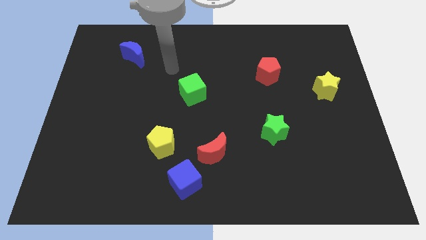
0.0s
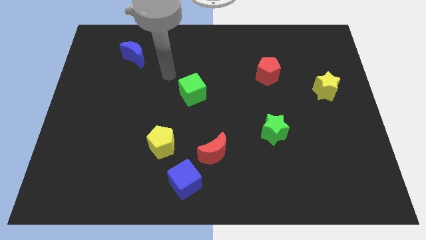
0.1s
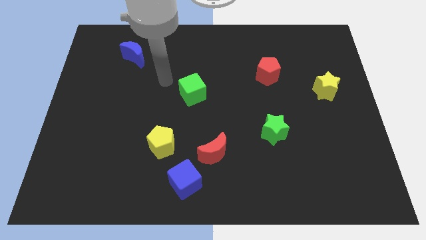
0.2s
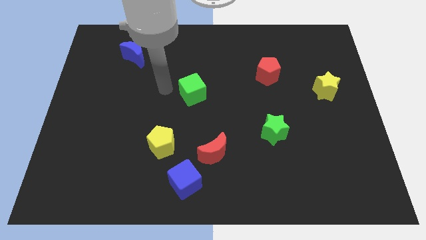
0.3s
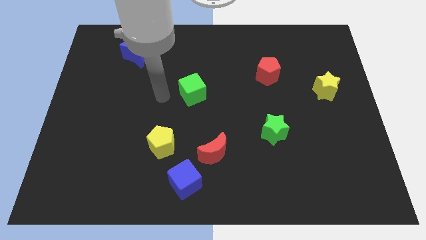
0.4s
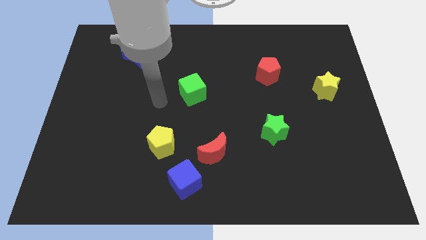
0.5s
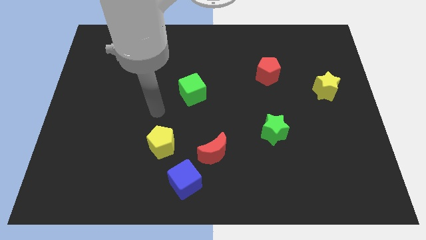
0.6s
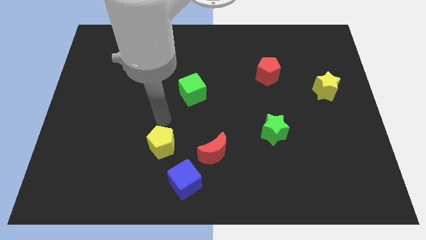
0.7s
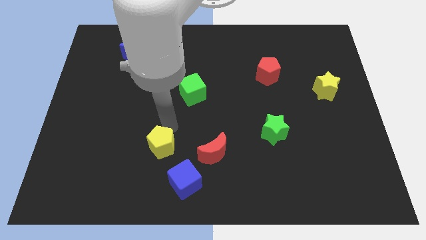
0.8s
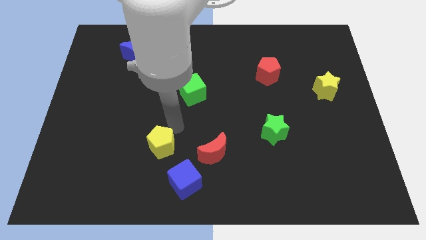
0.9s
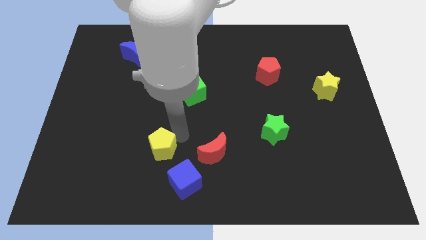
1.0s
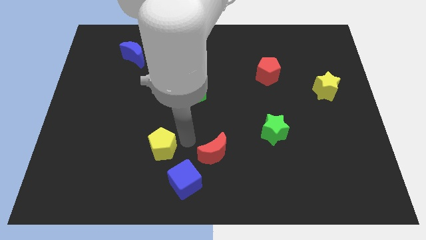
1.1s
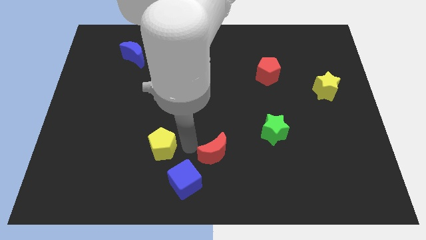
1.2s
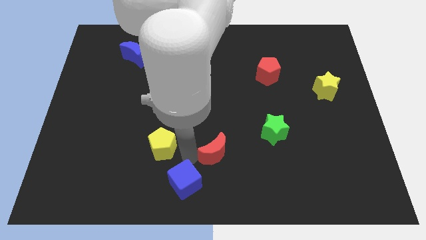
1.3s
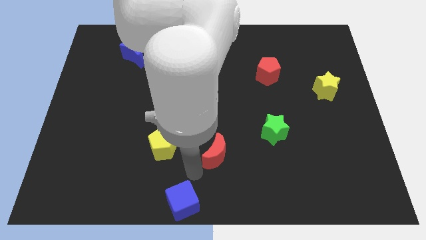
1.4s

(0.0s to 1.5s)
pull the red moon apart from the blue cube

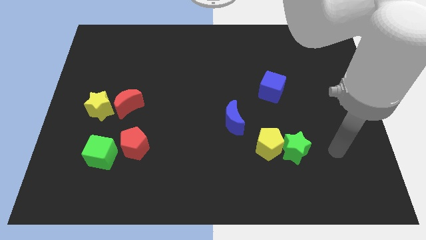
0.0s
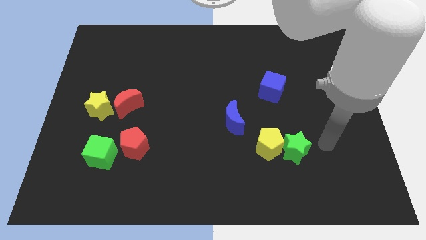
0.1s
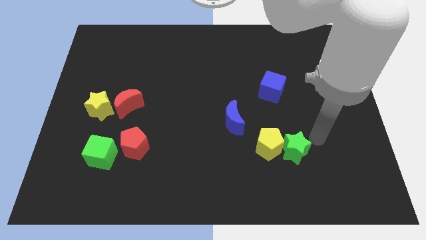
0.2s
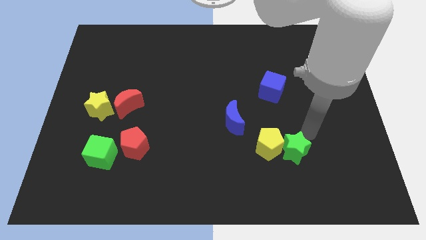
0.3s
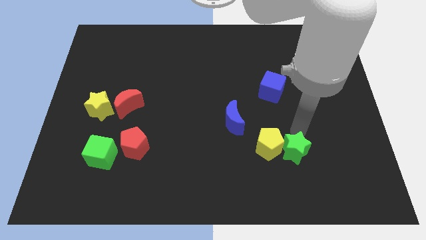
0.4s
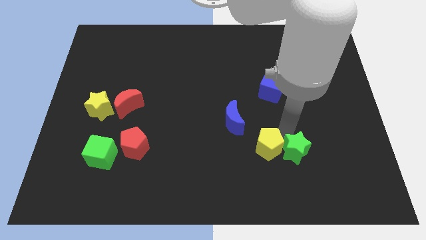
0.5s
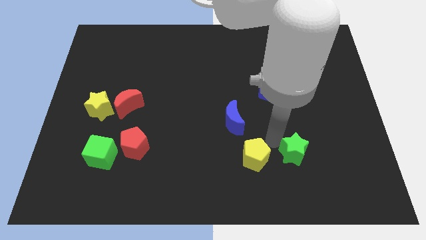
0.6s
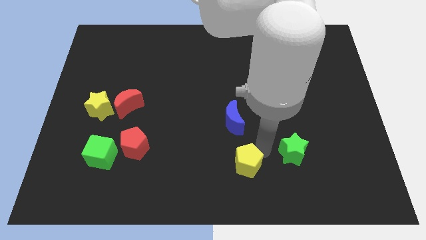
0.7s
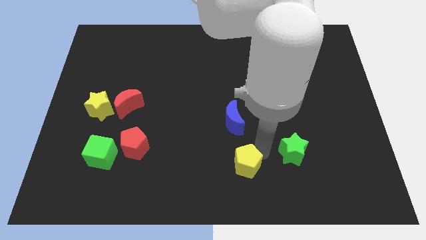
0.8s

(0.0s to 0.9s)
pull the green star apart from the yellow pentagon

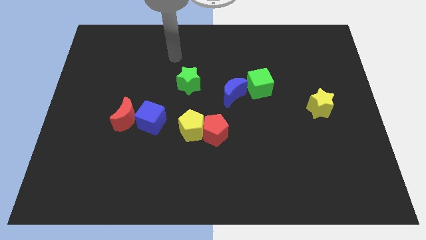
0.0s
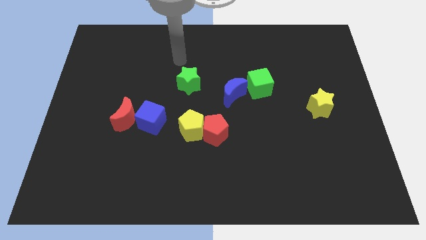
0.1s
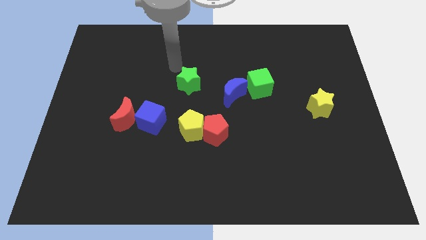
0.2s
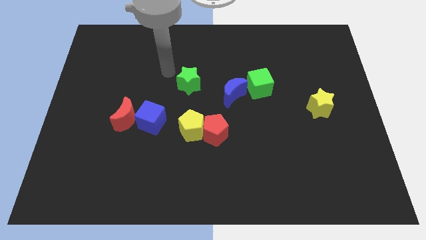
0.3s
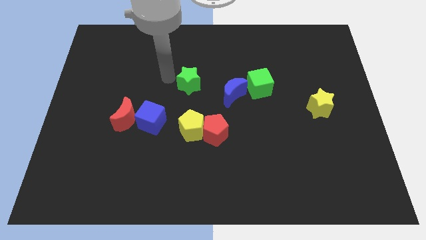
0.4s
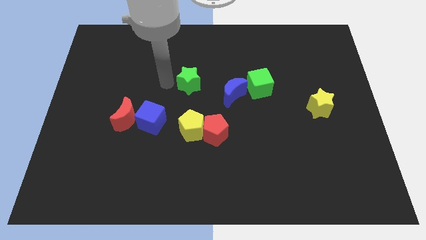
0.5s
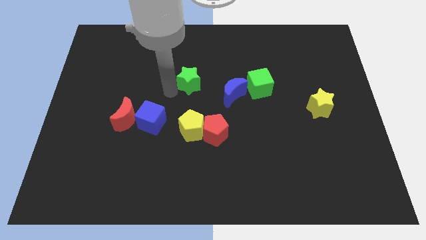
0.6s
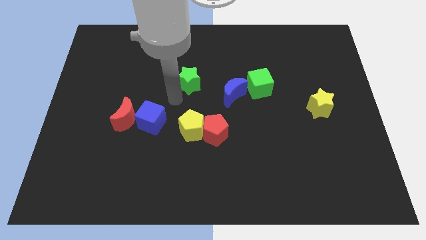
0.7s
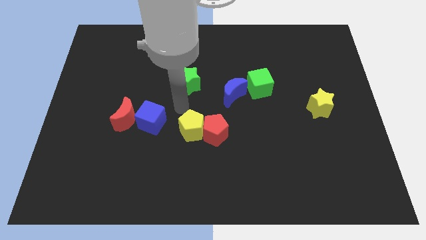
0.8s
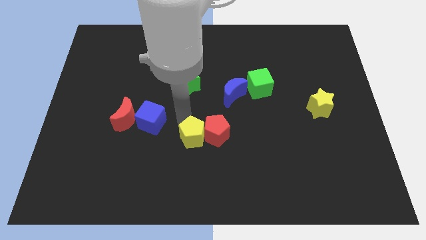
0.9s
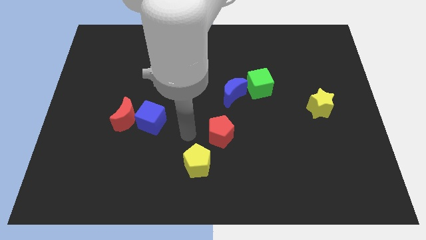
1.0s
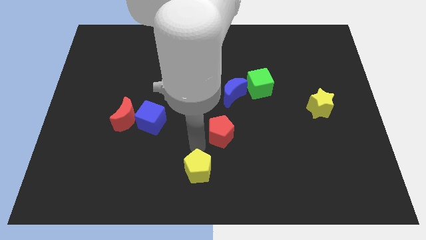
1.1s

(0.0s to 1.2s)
separate the red pentagon from the yellow pentagon

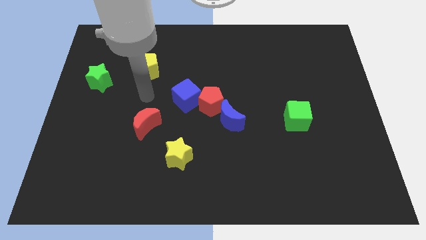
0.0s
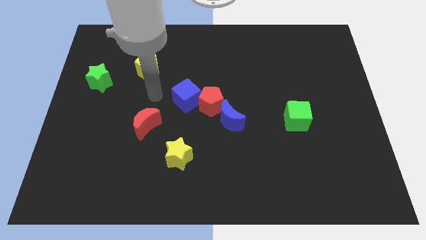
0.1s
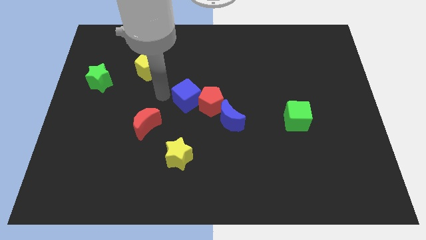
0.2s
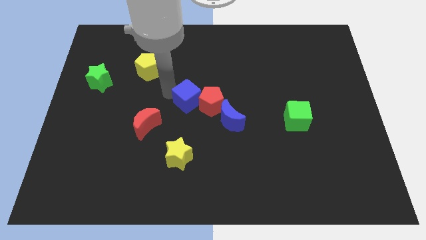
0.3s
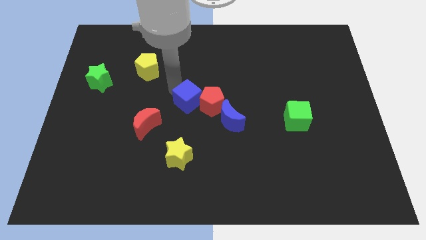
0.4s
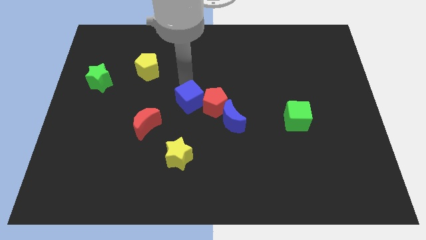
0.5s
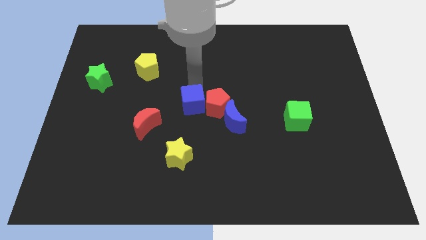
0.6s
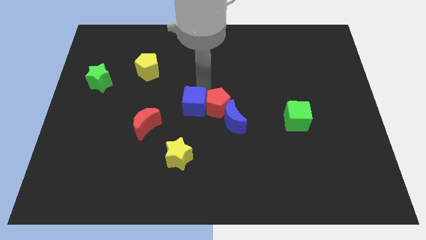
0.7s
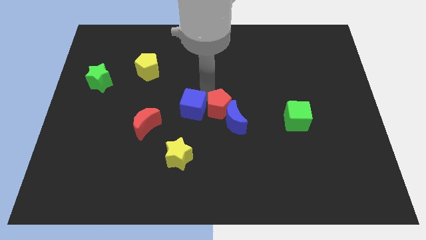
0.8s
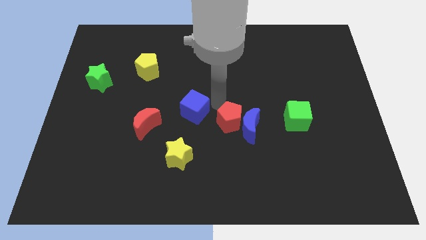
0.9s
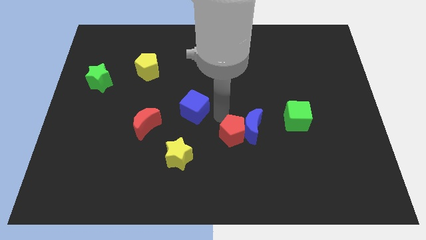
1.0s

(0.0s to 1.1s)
separate the blue cube from the red pentagon

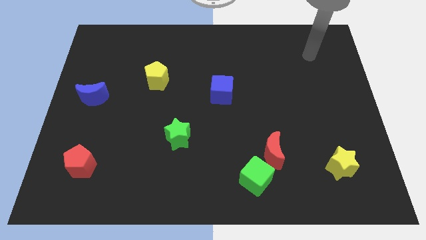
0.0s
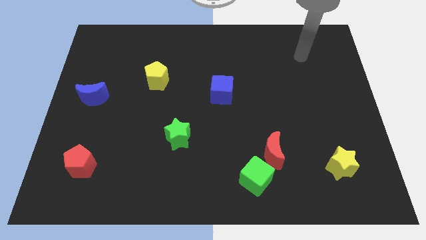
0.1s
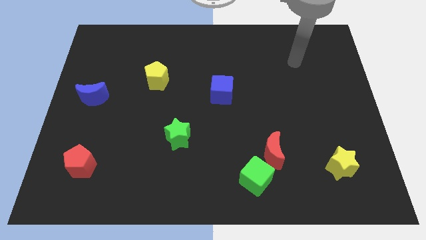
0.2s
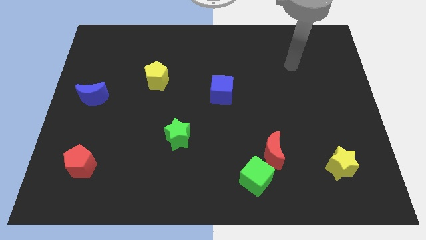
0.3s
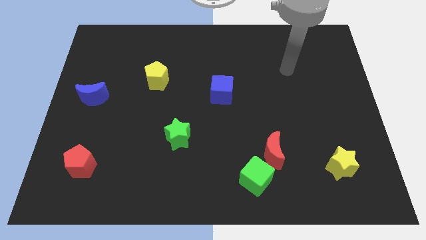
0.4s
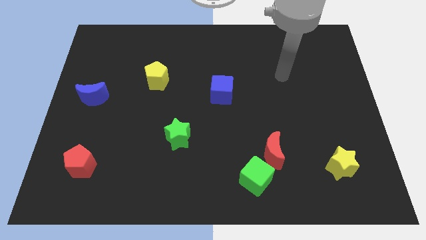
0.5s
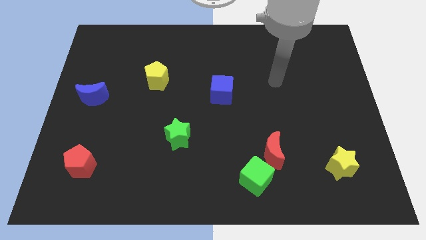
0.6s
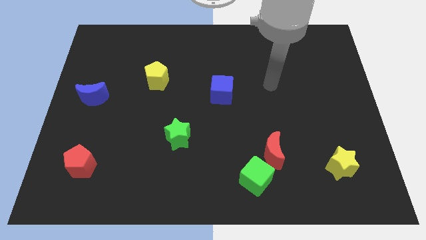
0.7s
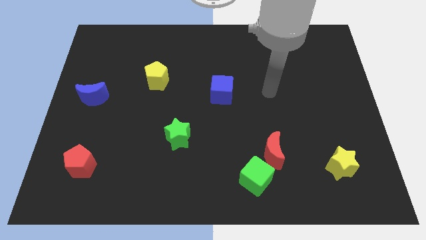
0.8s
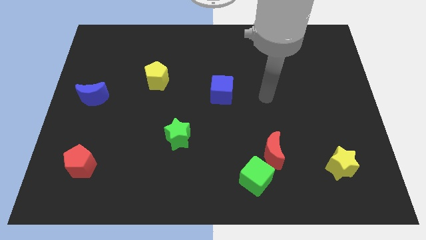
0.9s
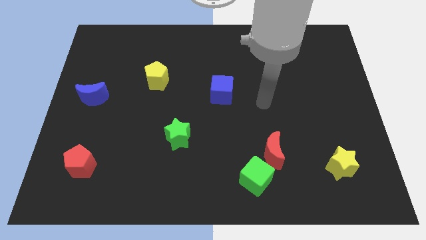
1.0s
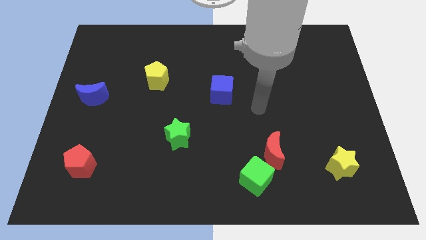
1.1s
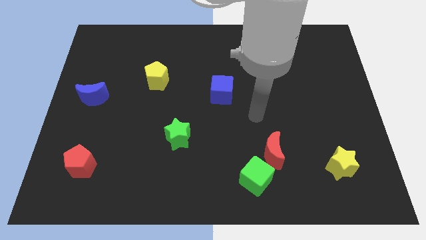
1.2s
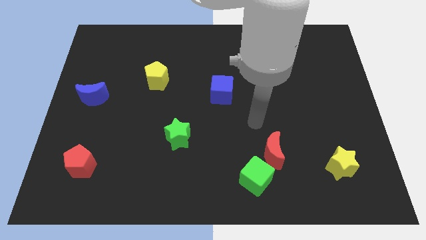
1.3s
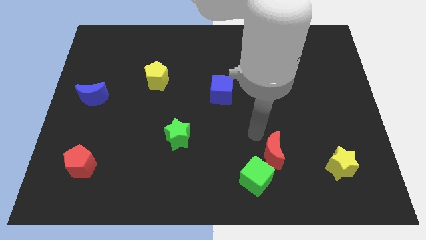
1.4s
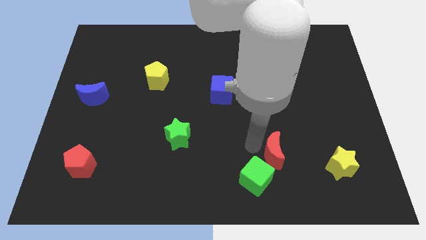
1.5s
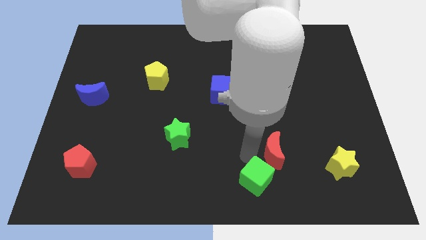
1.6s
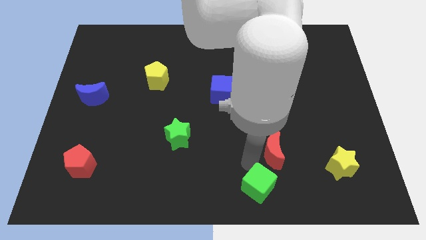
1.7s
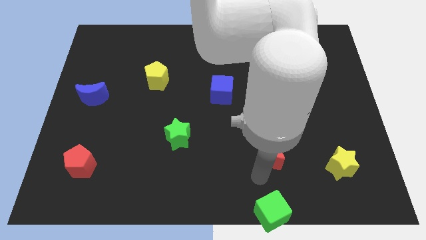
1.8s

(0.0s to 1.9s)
move the red moon away from the green cube

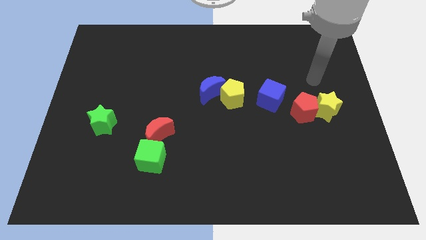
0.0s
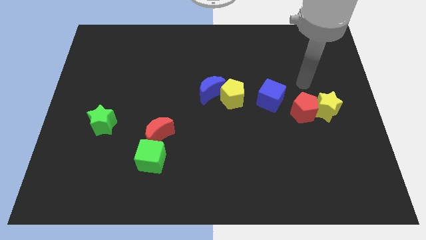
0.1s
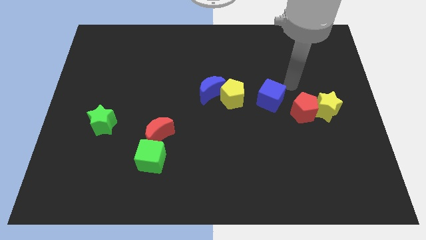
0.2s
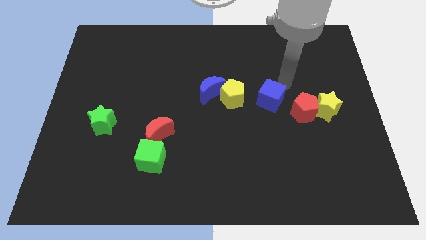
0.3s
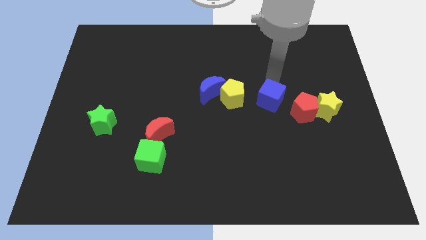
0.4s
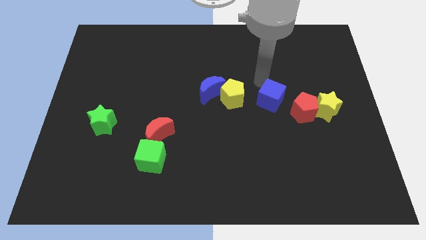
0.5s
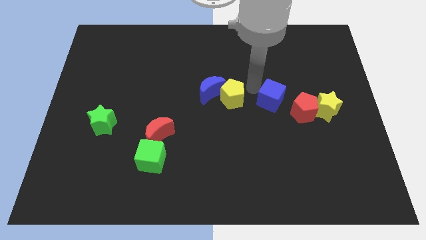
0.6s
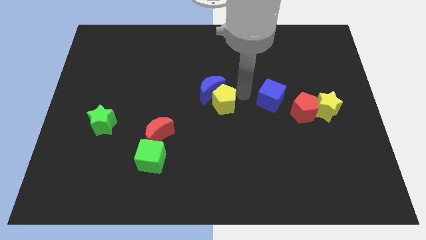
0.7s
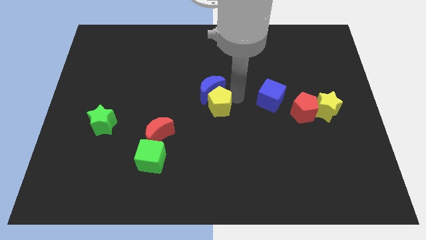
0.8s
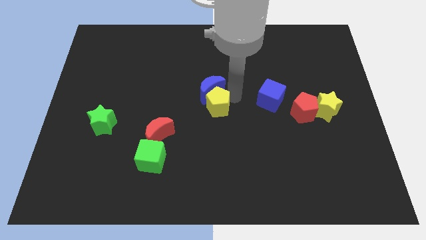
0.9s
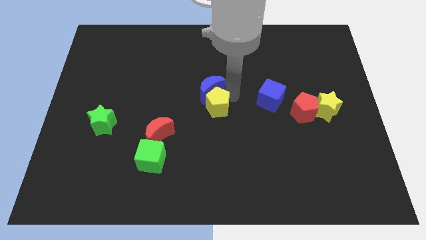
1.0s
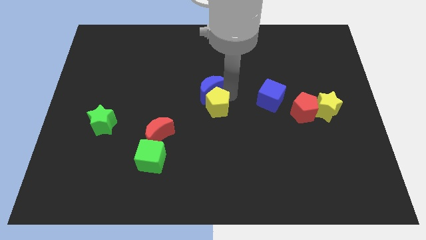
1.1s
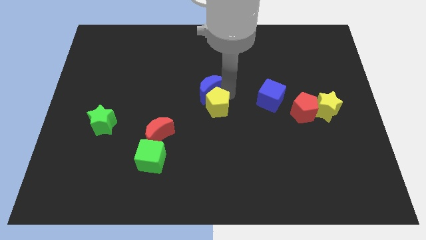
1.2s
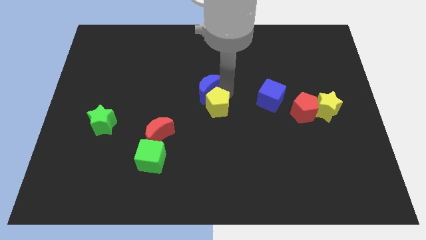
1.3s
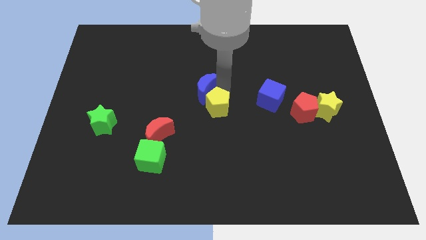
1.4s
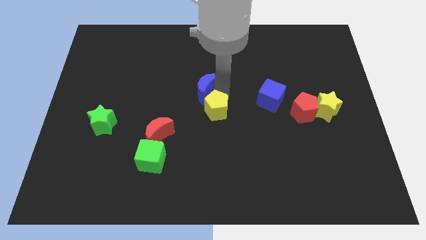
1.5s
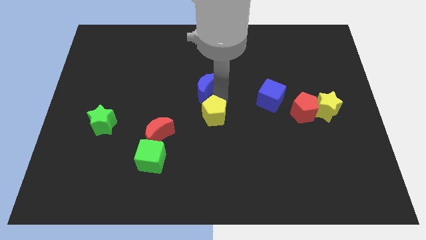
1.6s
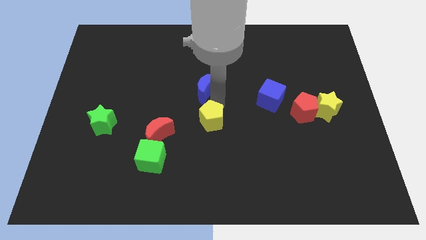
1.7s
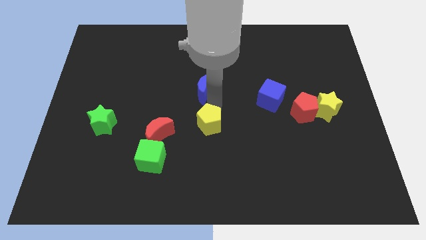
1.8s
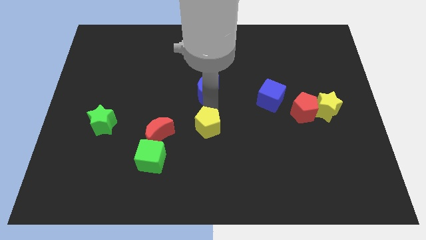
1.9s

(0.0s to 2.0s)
separate the blue moon from the yellow pentagon

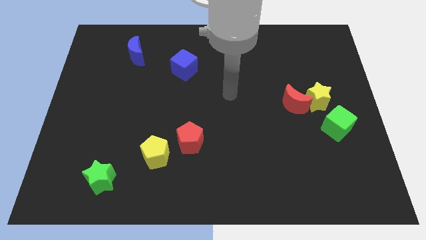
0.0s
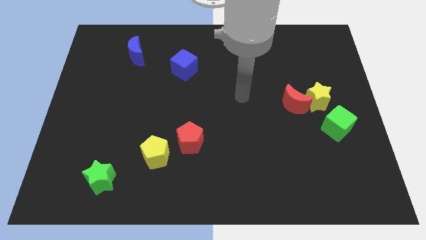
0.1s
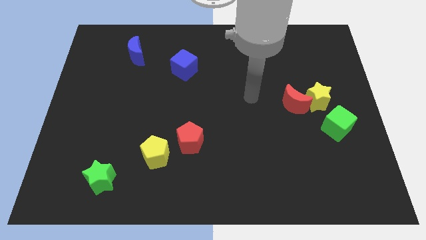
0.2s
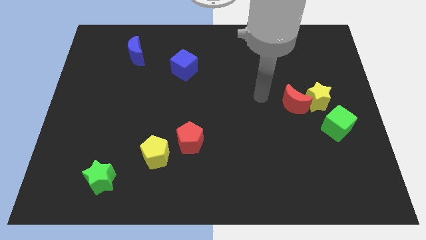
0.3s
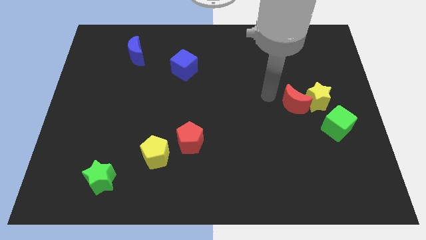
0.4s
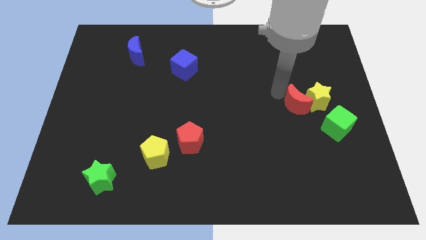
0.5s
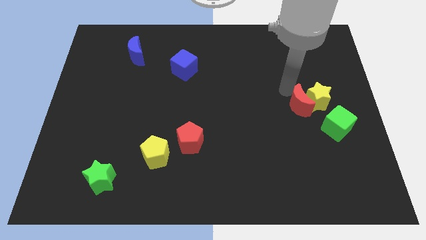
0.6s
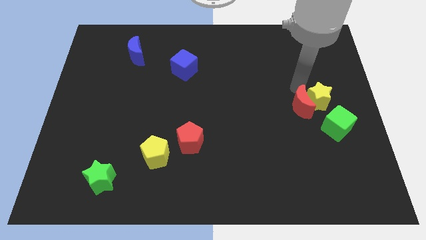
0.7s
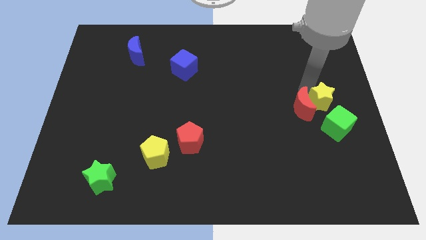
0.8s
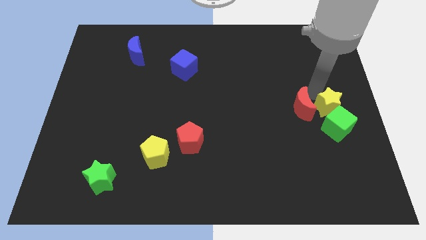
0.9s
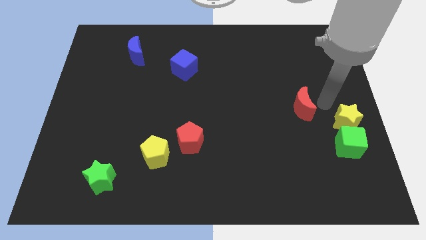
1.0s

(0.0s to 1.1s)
pull the red moon apart from the yellow star
